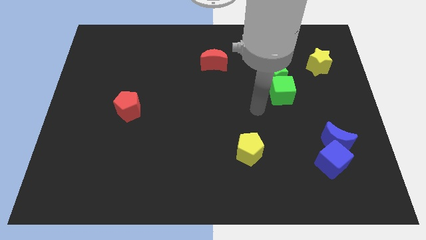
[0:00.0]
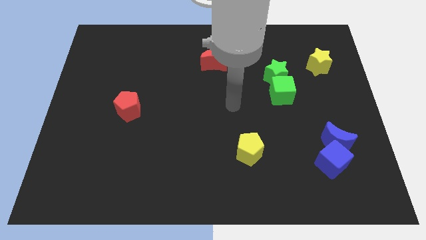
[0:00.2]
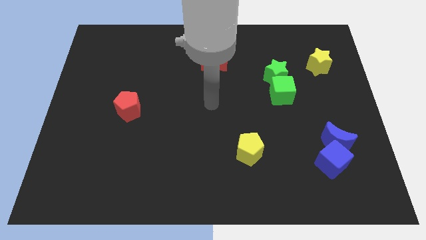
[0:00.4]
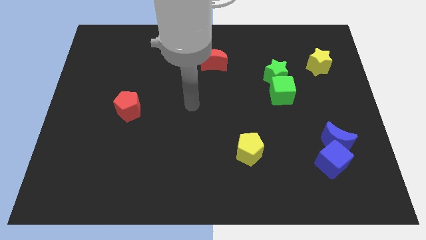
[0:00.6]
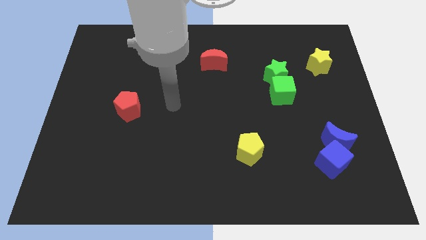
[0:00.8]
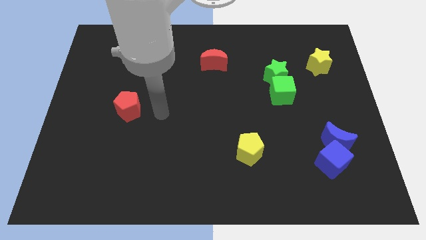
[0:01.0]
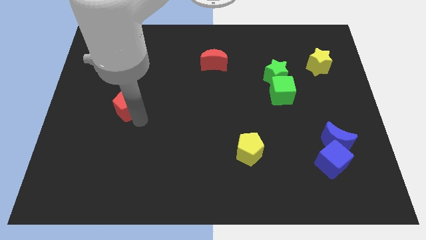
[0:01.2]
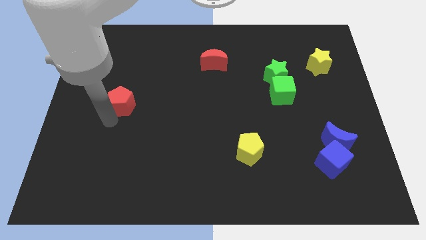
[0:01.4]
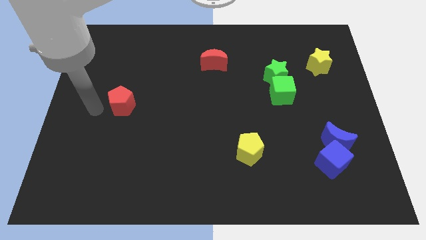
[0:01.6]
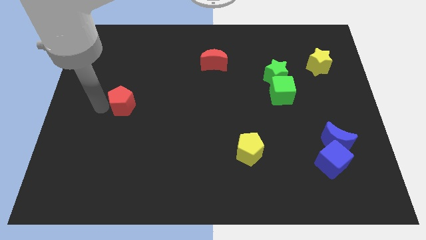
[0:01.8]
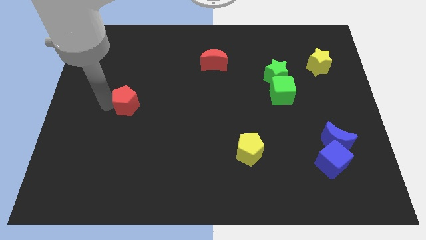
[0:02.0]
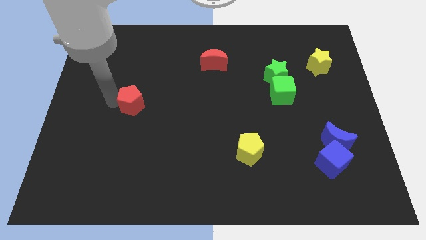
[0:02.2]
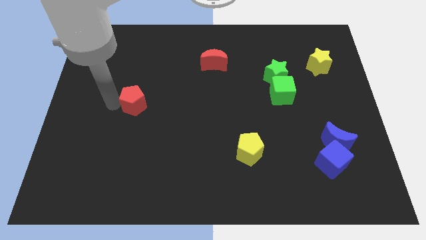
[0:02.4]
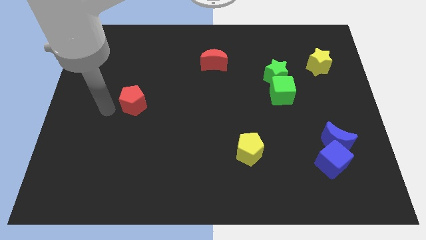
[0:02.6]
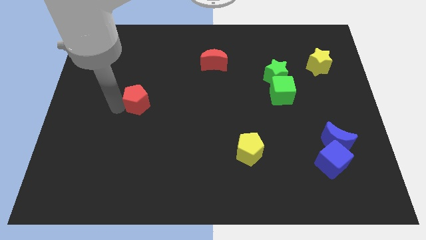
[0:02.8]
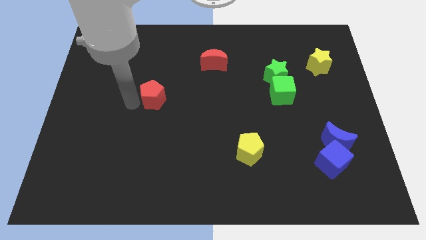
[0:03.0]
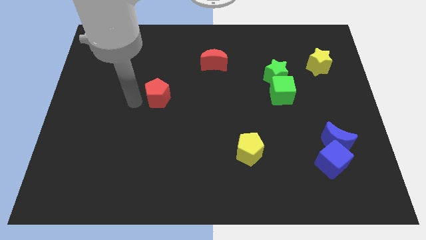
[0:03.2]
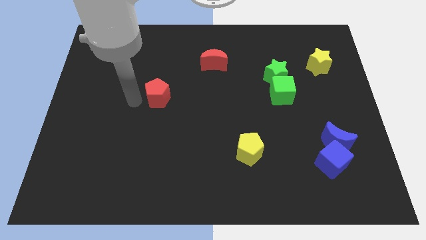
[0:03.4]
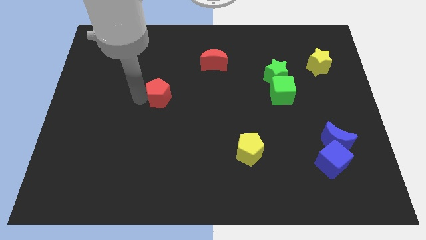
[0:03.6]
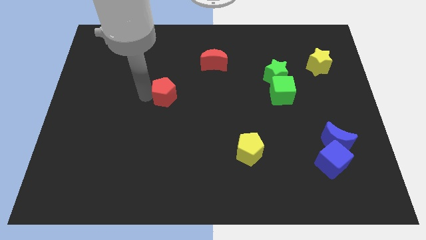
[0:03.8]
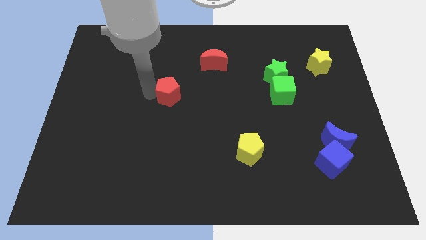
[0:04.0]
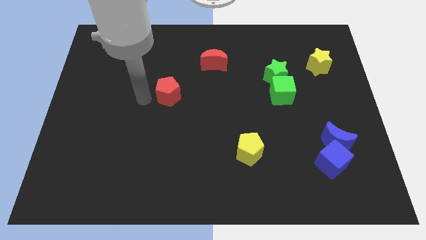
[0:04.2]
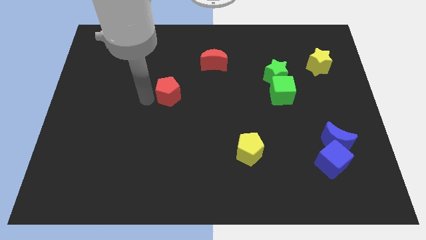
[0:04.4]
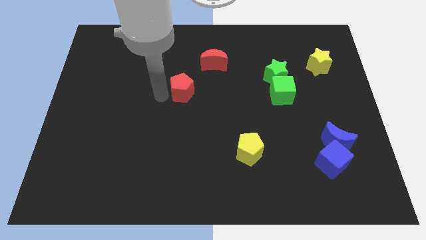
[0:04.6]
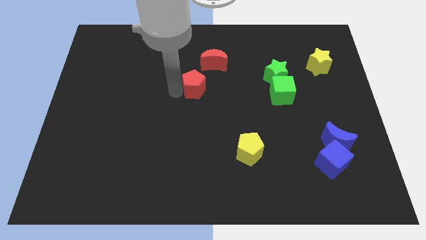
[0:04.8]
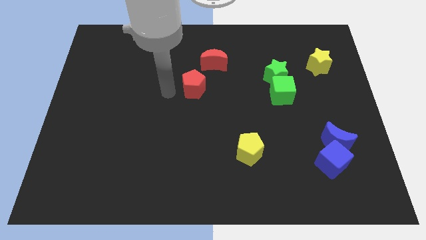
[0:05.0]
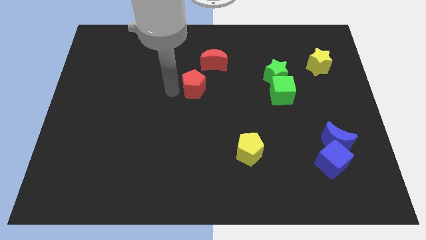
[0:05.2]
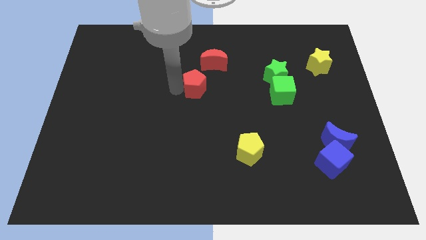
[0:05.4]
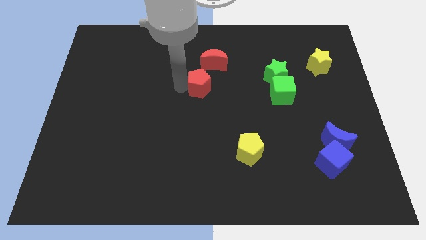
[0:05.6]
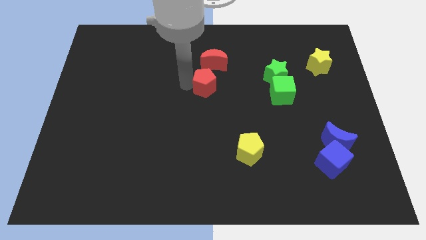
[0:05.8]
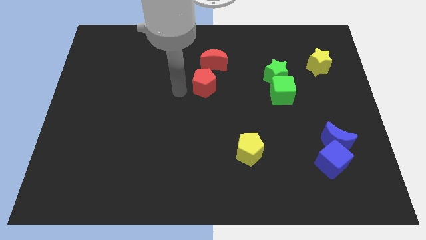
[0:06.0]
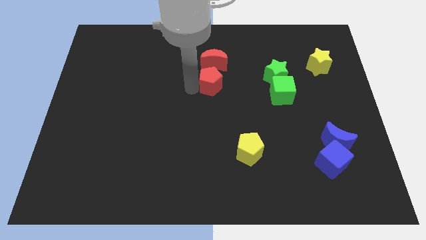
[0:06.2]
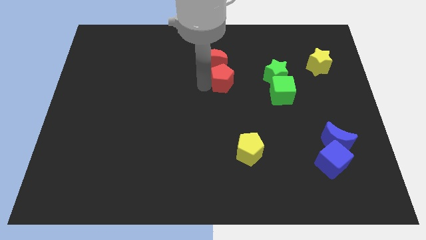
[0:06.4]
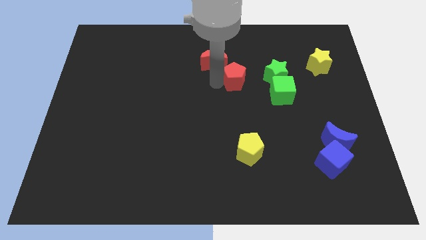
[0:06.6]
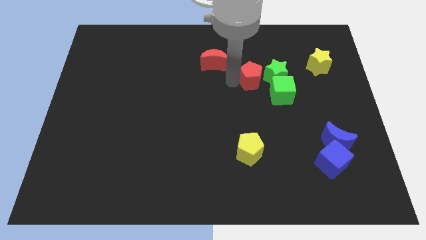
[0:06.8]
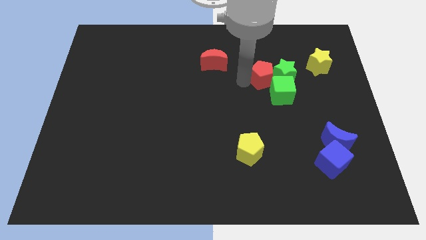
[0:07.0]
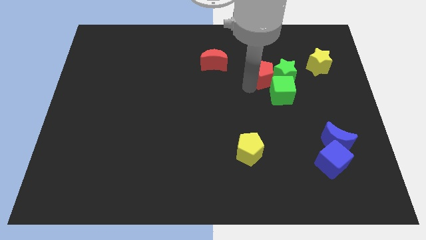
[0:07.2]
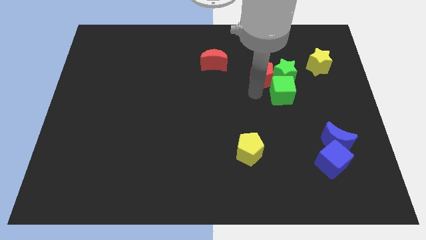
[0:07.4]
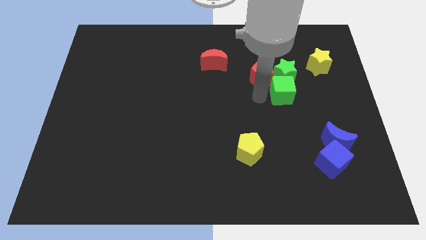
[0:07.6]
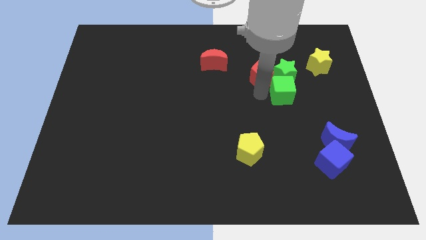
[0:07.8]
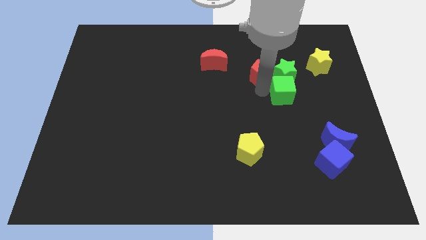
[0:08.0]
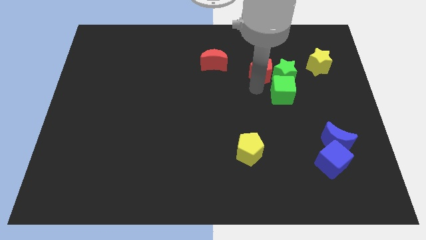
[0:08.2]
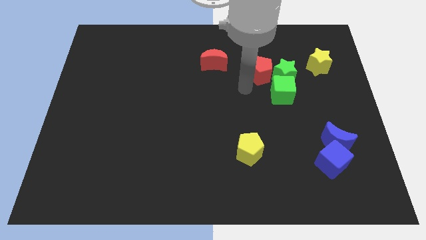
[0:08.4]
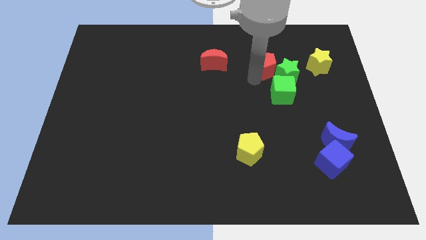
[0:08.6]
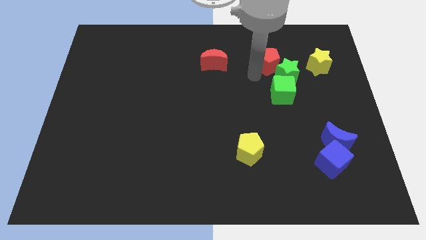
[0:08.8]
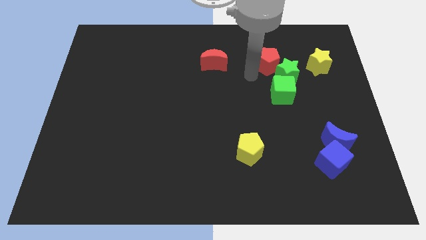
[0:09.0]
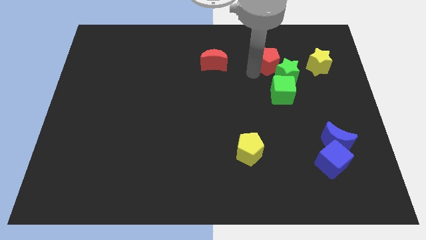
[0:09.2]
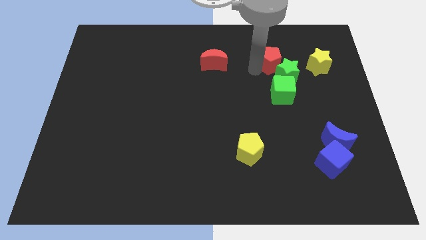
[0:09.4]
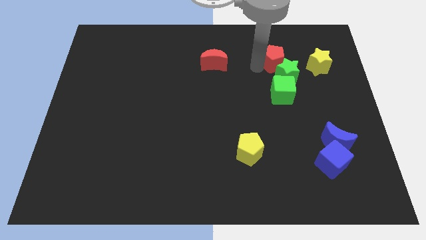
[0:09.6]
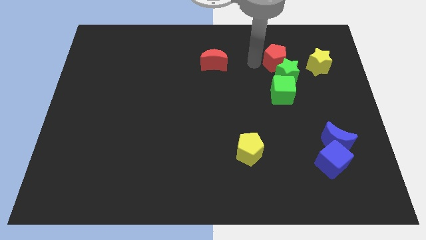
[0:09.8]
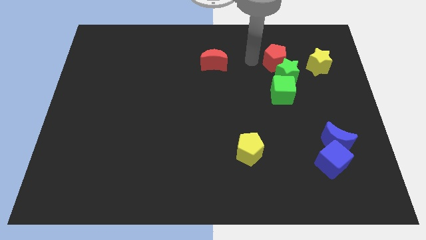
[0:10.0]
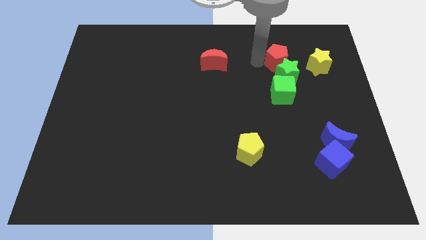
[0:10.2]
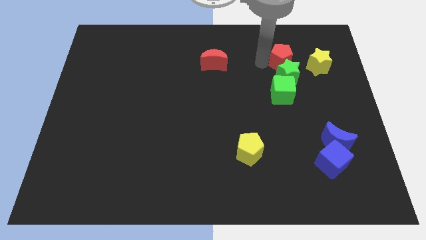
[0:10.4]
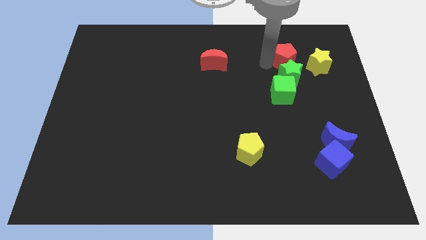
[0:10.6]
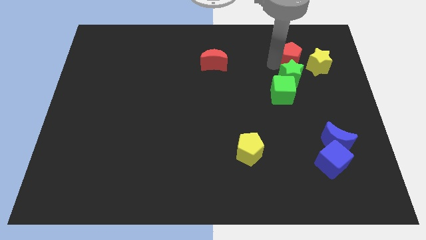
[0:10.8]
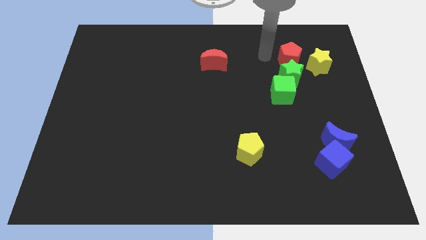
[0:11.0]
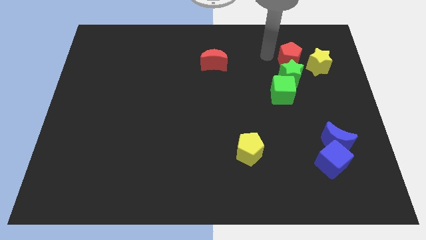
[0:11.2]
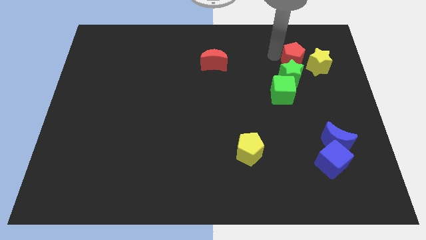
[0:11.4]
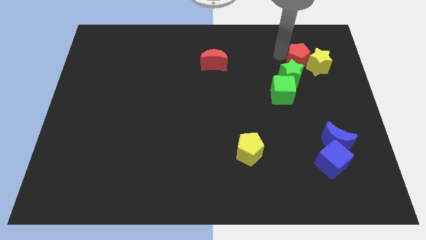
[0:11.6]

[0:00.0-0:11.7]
move the red pentagon close to the yellow star

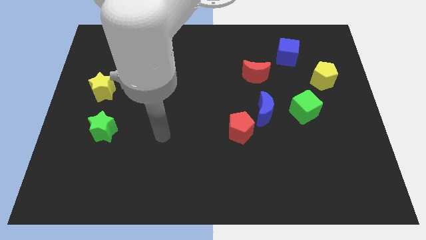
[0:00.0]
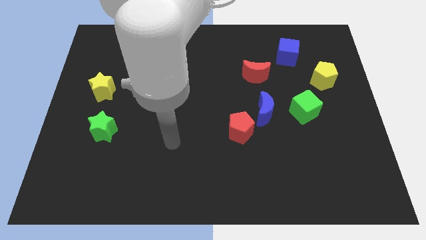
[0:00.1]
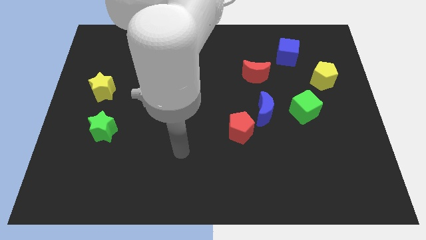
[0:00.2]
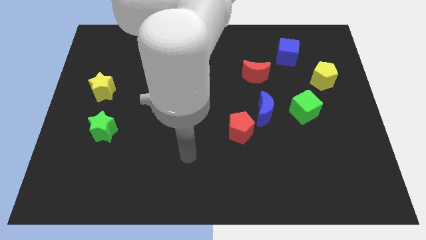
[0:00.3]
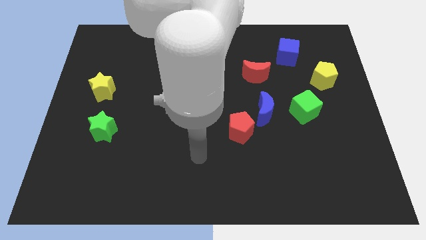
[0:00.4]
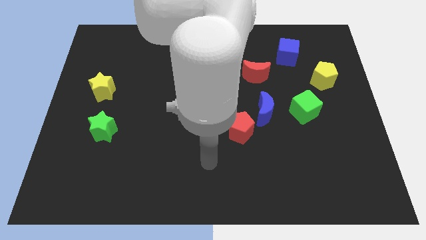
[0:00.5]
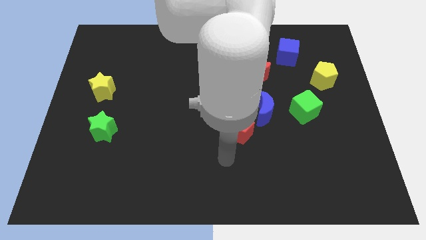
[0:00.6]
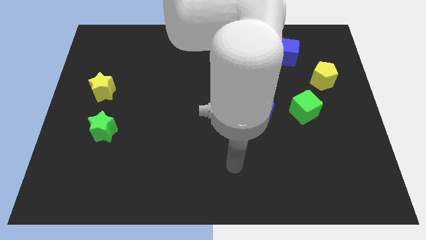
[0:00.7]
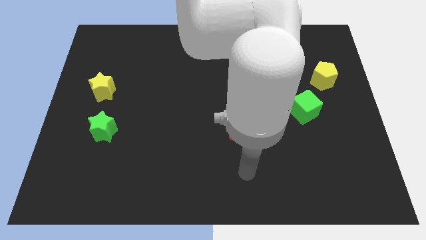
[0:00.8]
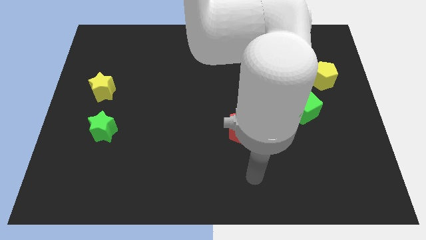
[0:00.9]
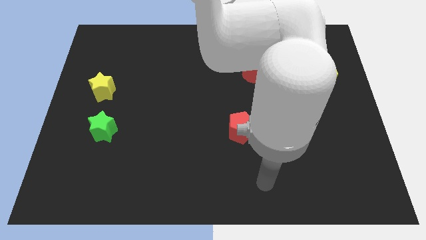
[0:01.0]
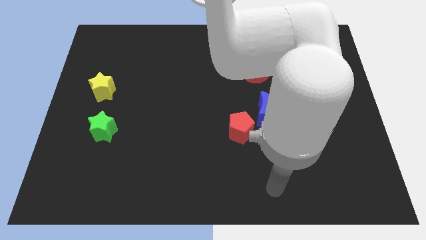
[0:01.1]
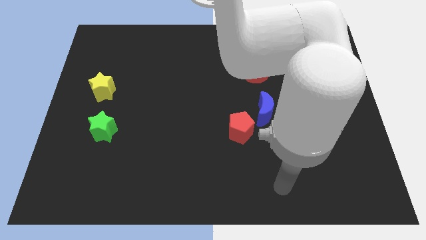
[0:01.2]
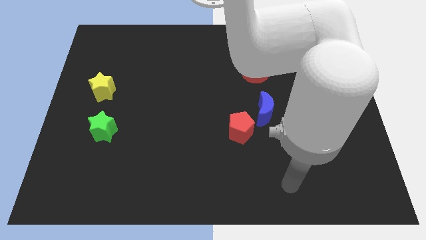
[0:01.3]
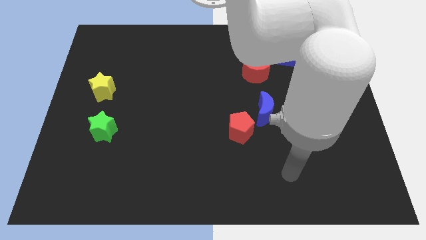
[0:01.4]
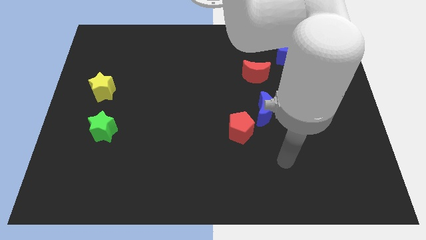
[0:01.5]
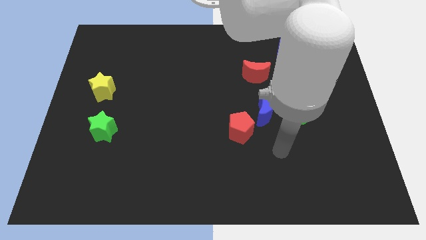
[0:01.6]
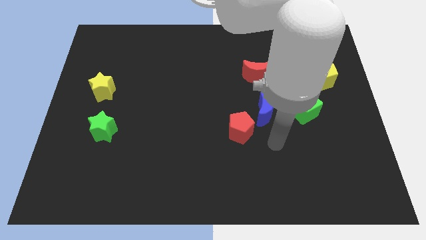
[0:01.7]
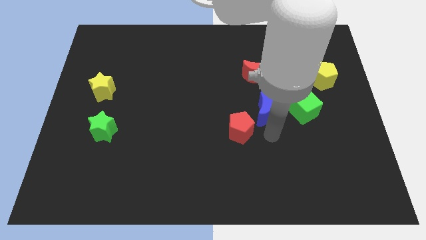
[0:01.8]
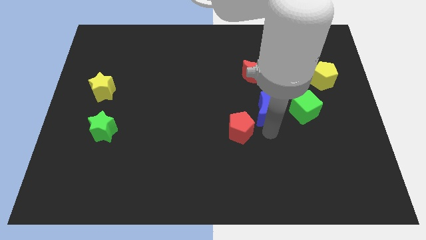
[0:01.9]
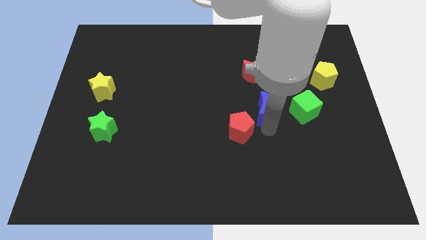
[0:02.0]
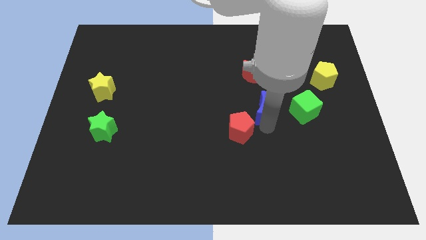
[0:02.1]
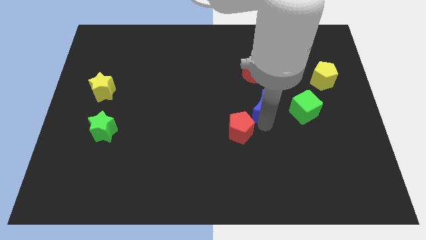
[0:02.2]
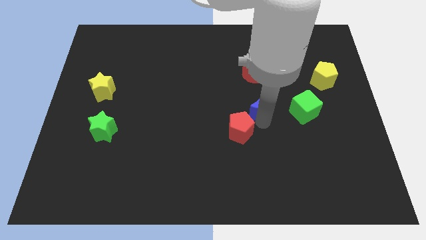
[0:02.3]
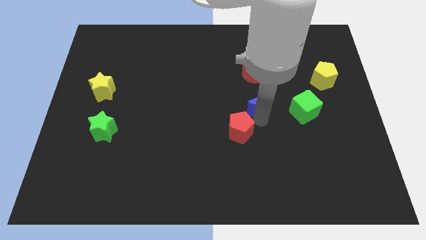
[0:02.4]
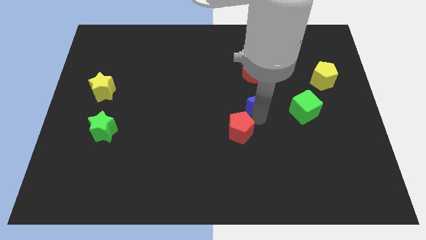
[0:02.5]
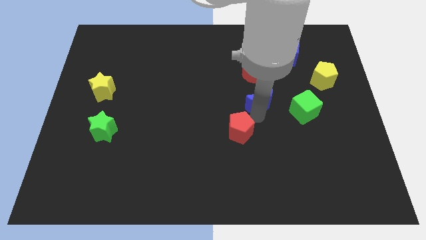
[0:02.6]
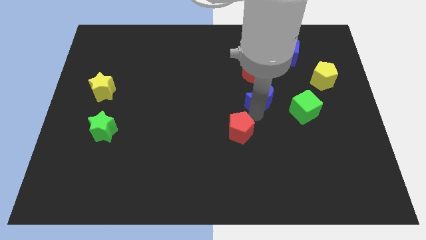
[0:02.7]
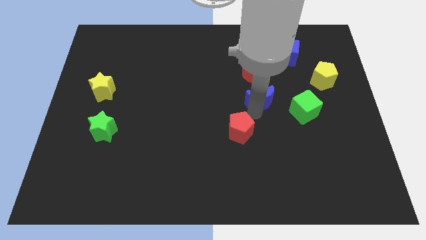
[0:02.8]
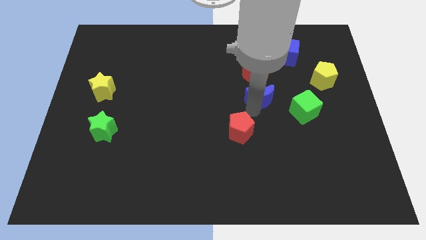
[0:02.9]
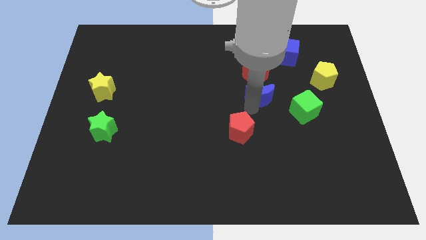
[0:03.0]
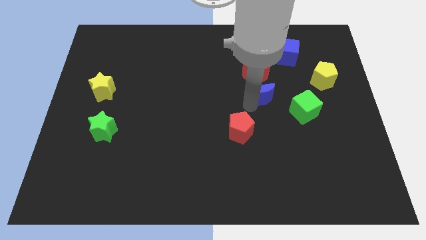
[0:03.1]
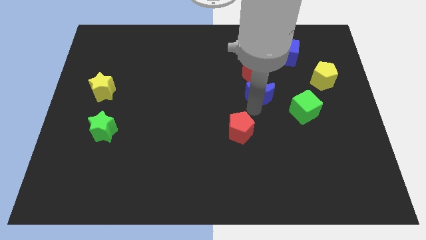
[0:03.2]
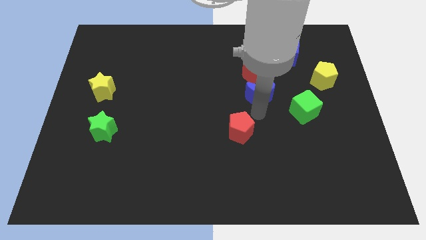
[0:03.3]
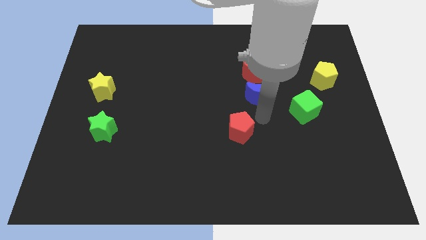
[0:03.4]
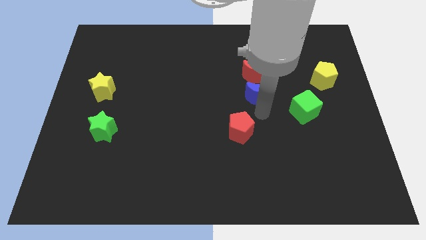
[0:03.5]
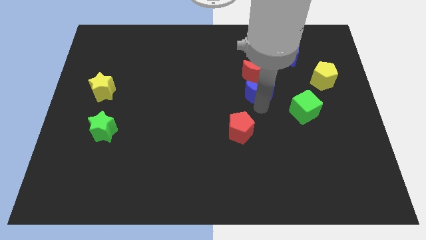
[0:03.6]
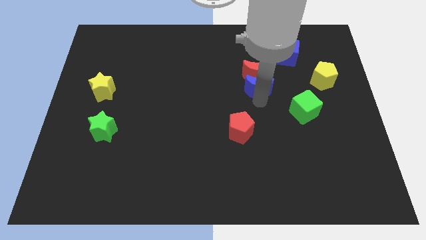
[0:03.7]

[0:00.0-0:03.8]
push the blue moon next to the red moon
